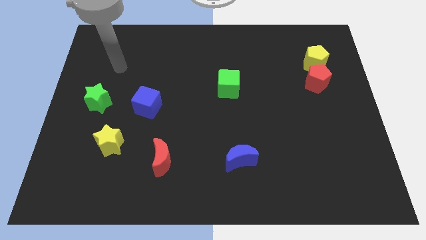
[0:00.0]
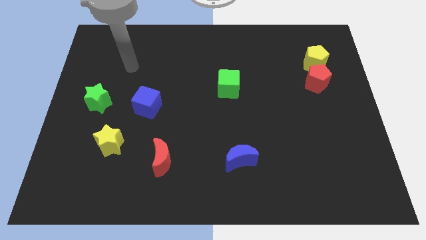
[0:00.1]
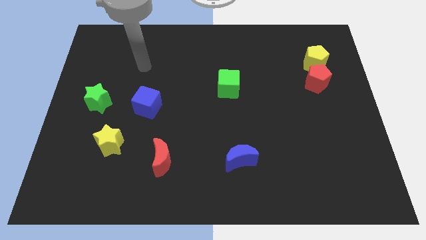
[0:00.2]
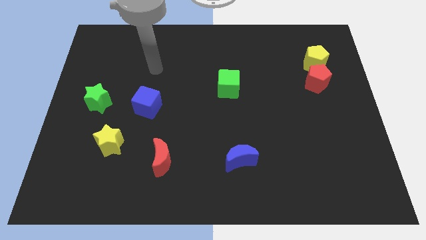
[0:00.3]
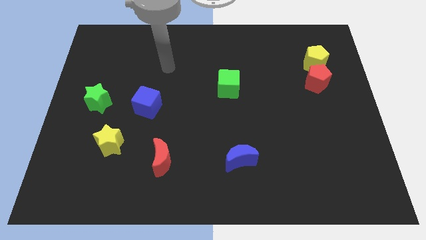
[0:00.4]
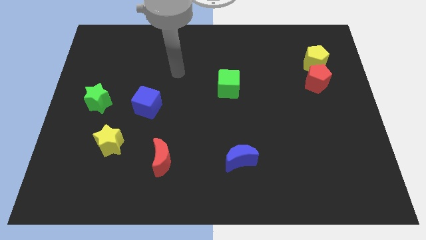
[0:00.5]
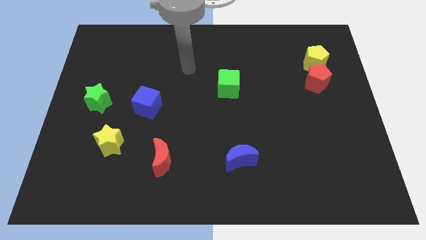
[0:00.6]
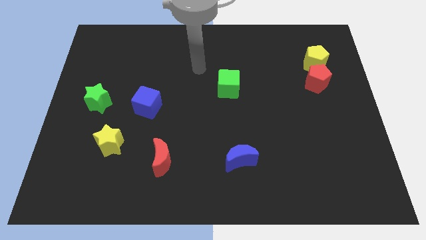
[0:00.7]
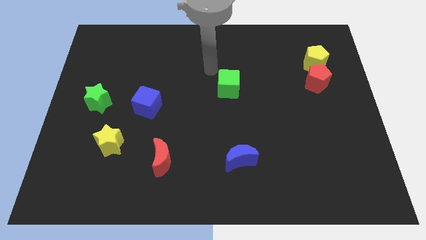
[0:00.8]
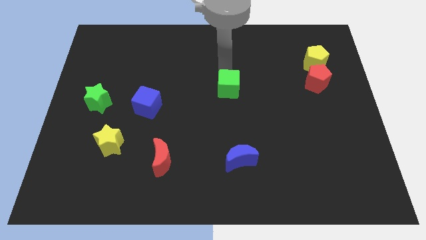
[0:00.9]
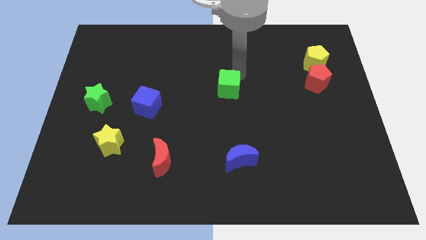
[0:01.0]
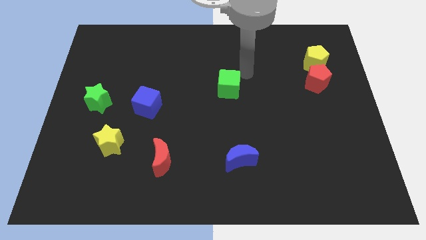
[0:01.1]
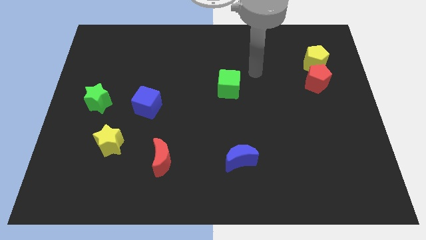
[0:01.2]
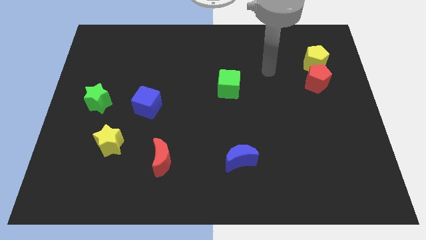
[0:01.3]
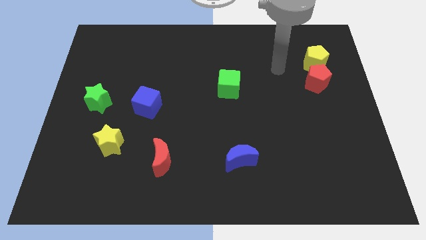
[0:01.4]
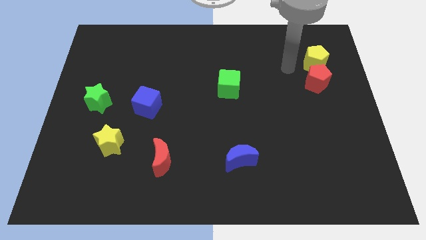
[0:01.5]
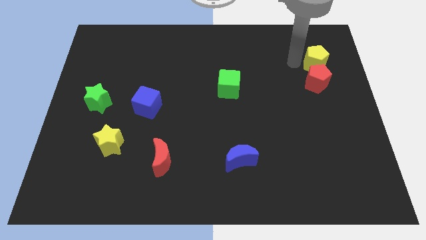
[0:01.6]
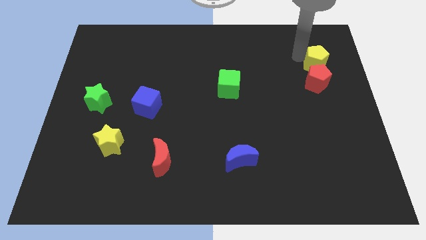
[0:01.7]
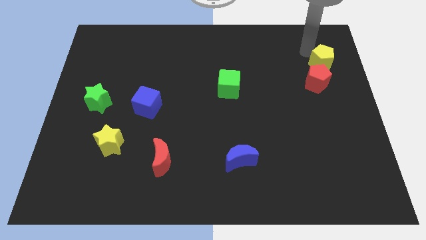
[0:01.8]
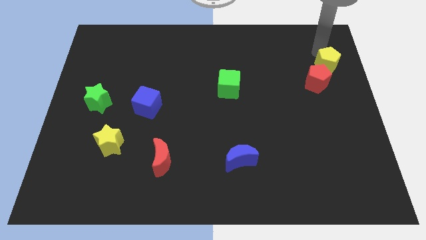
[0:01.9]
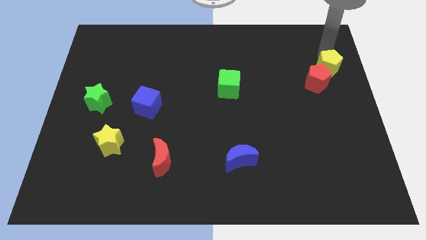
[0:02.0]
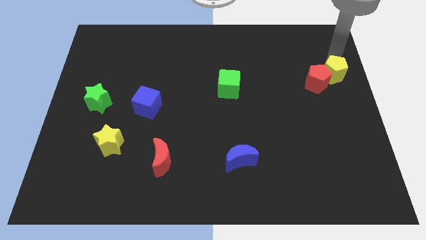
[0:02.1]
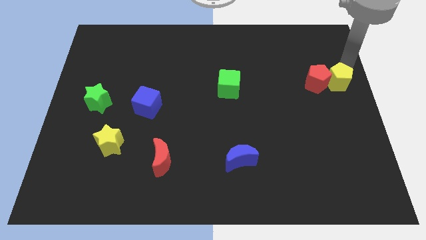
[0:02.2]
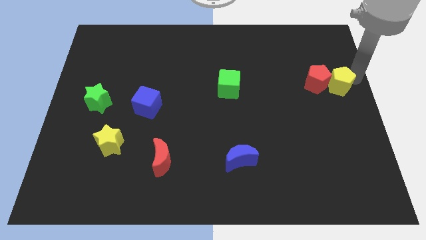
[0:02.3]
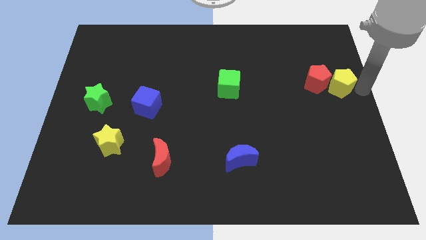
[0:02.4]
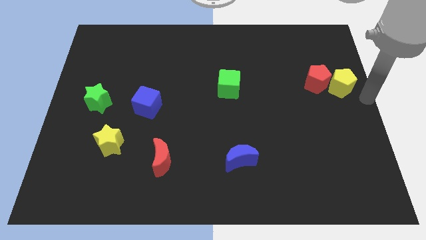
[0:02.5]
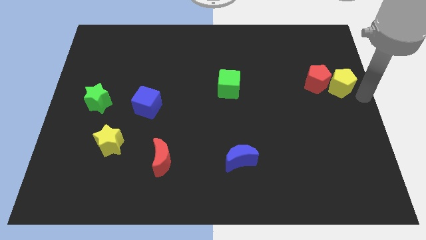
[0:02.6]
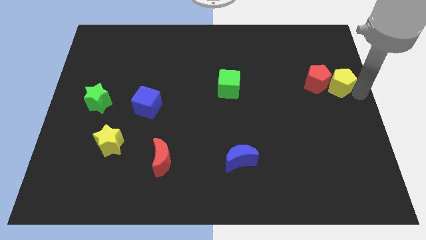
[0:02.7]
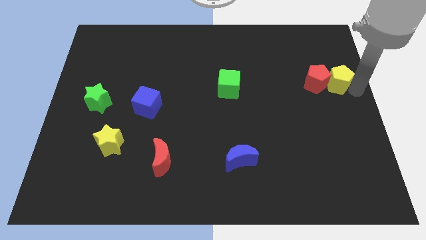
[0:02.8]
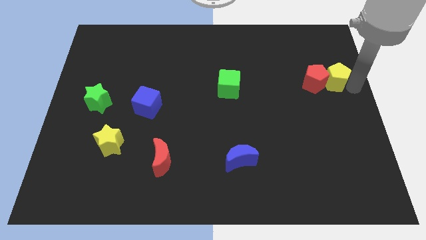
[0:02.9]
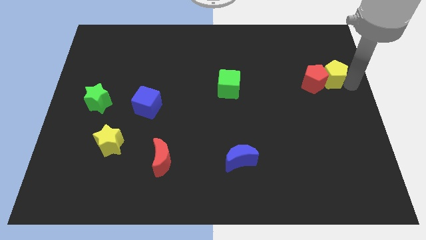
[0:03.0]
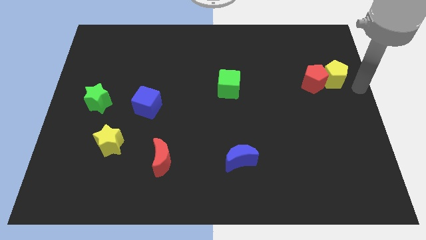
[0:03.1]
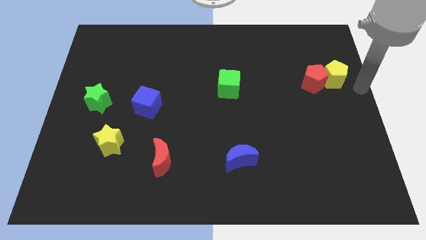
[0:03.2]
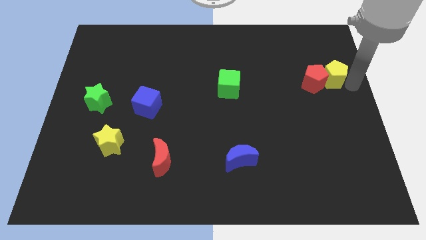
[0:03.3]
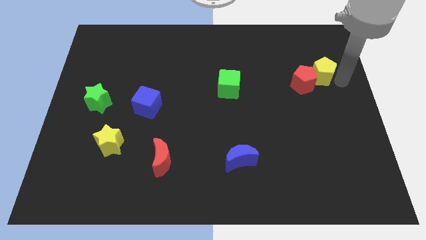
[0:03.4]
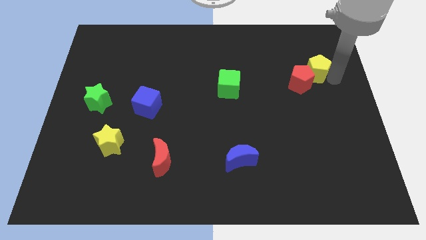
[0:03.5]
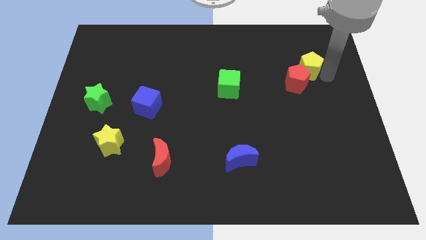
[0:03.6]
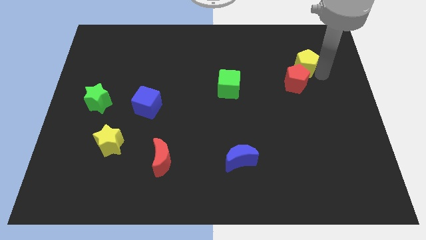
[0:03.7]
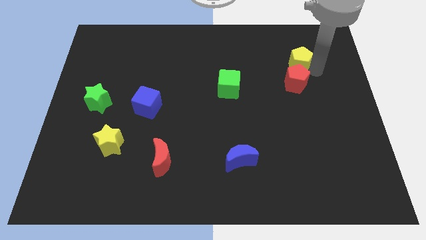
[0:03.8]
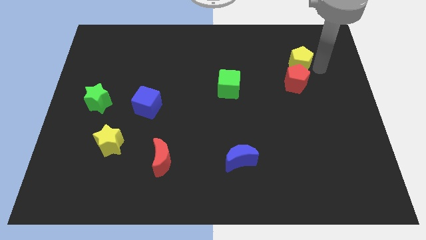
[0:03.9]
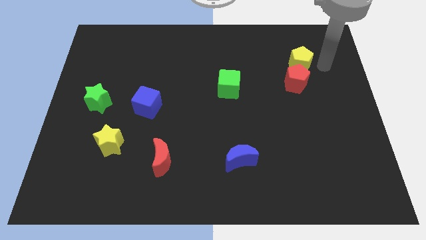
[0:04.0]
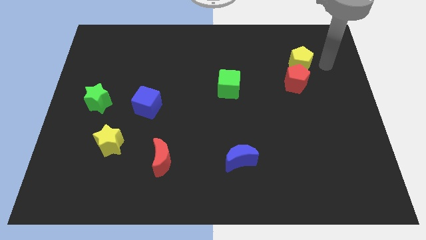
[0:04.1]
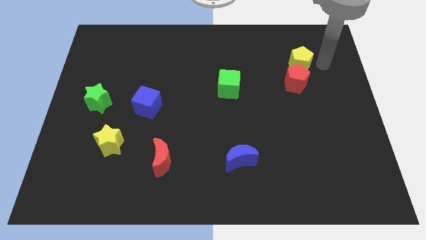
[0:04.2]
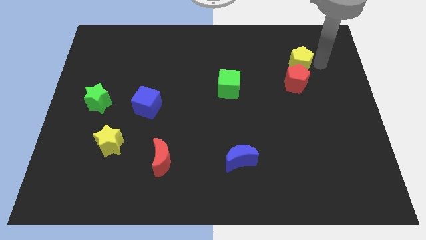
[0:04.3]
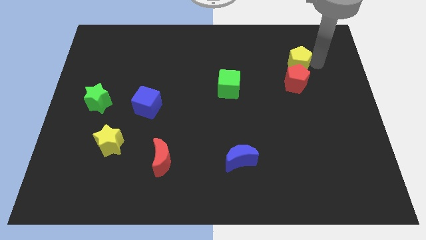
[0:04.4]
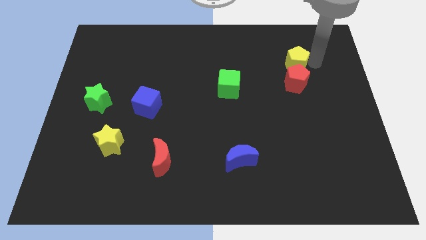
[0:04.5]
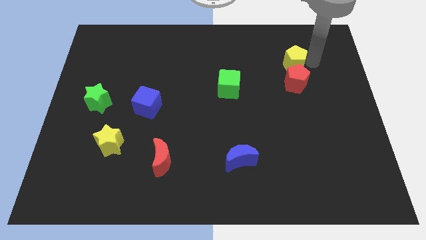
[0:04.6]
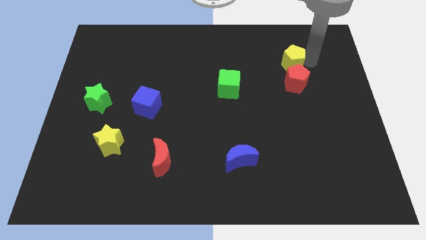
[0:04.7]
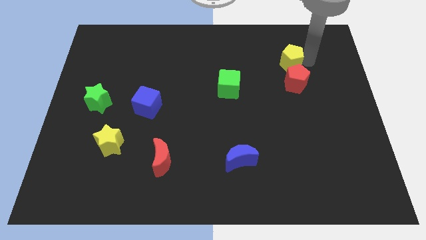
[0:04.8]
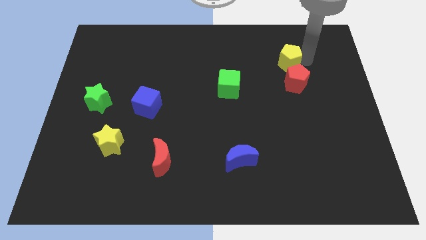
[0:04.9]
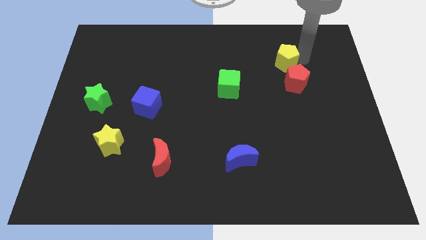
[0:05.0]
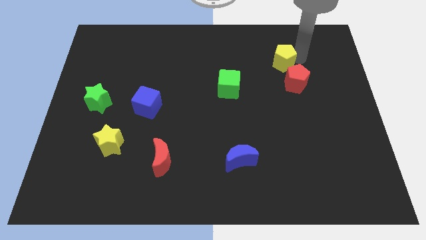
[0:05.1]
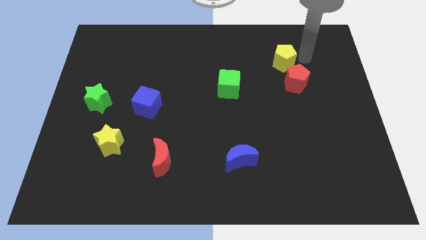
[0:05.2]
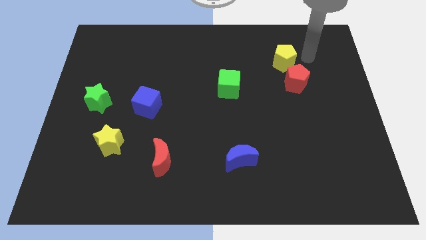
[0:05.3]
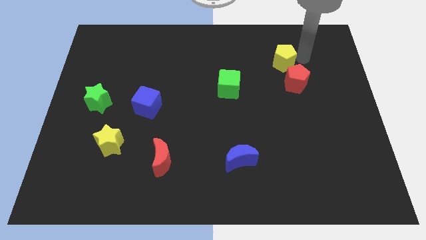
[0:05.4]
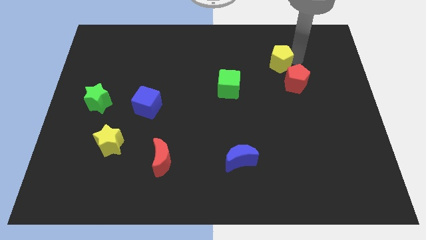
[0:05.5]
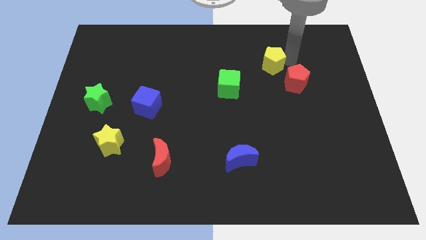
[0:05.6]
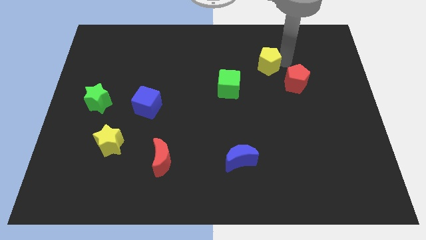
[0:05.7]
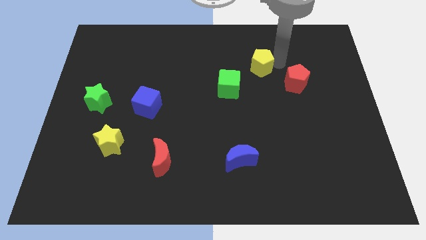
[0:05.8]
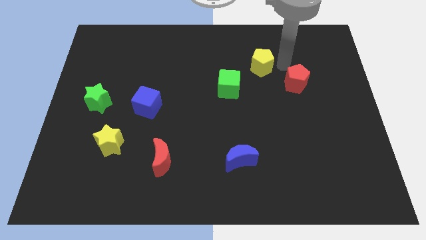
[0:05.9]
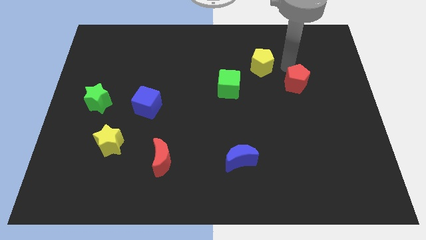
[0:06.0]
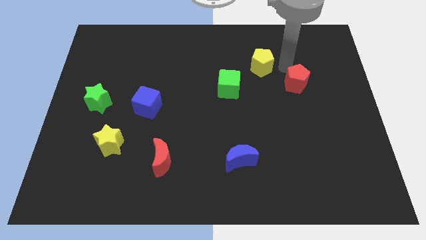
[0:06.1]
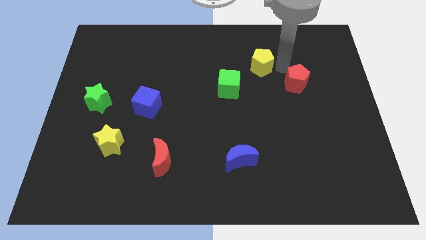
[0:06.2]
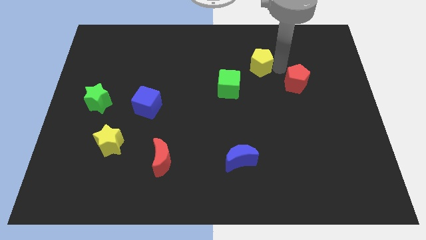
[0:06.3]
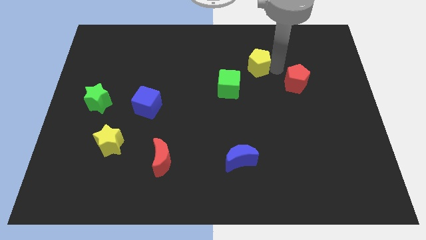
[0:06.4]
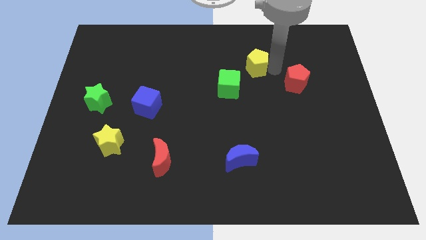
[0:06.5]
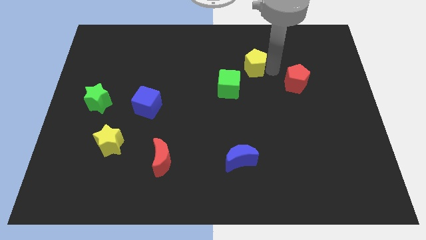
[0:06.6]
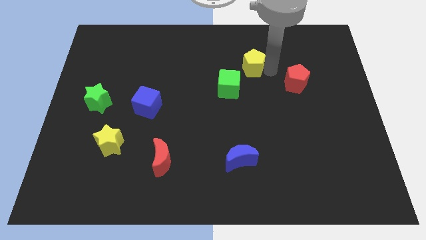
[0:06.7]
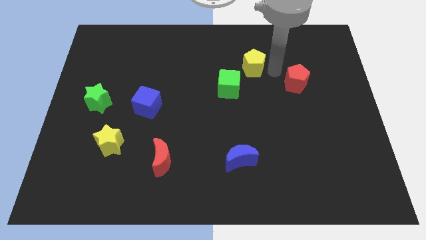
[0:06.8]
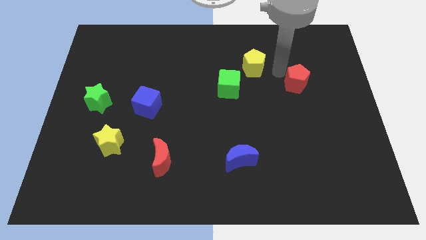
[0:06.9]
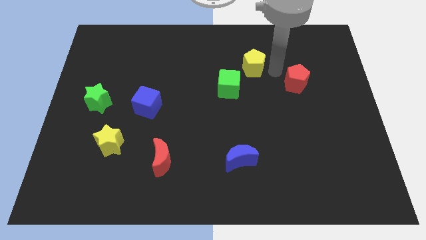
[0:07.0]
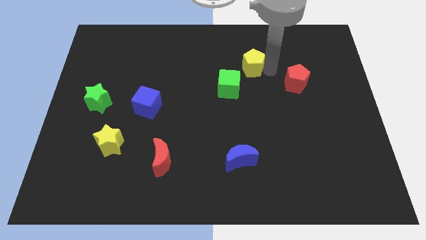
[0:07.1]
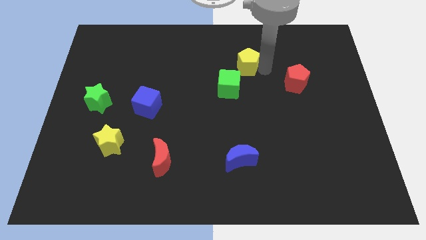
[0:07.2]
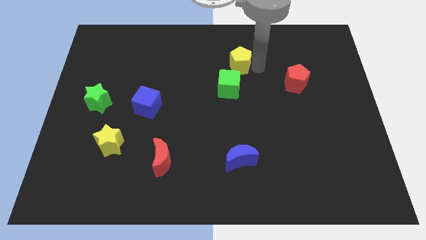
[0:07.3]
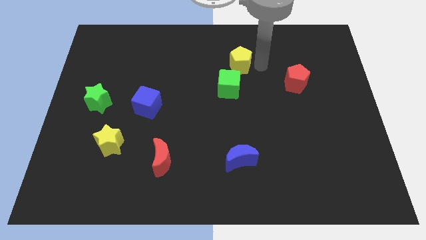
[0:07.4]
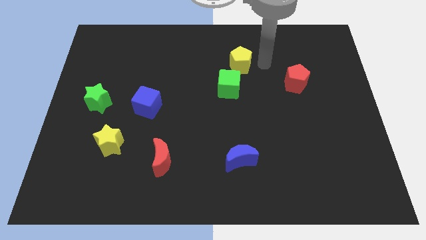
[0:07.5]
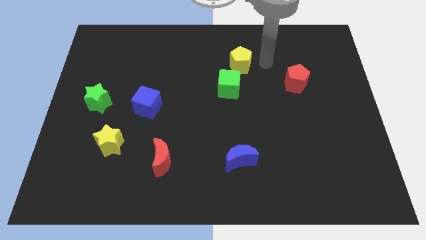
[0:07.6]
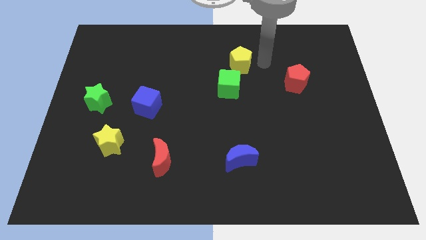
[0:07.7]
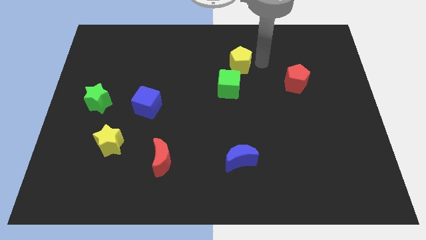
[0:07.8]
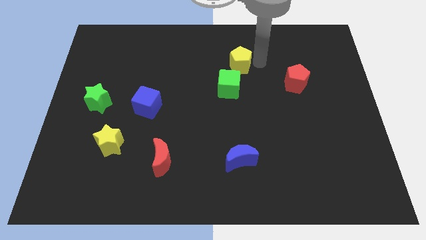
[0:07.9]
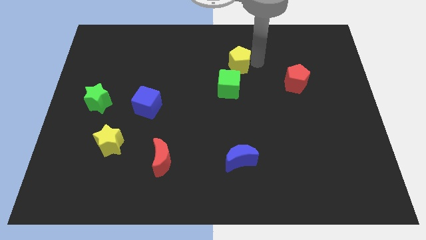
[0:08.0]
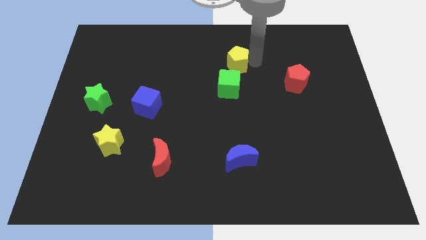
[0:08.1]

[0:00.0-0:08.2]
push the yellow pentagon left

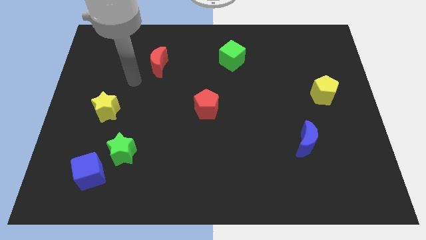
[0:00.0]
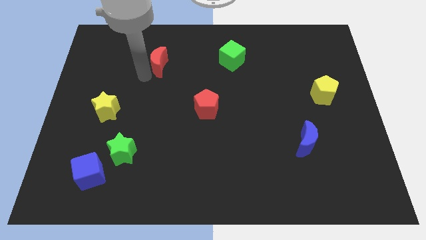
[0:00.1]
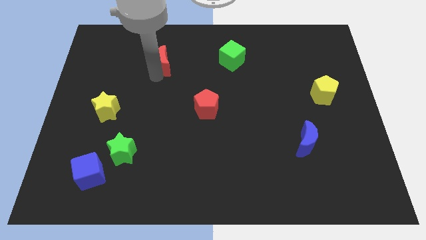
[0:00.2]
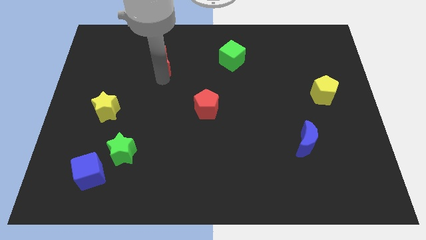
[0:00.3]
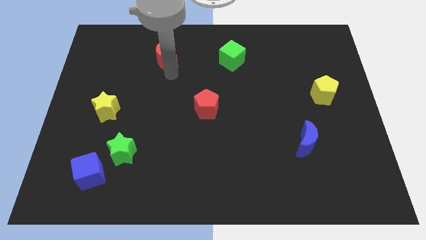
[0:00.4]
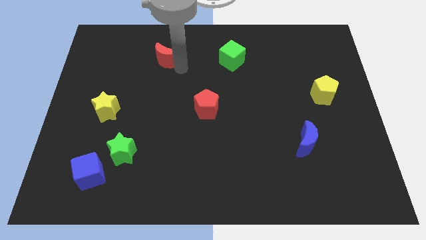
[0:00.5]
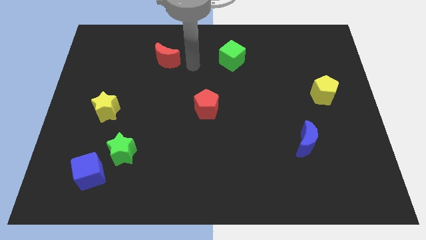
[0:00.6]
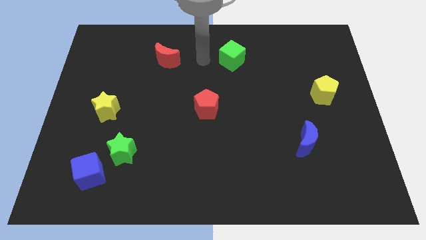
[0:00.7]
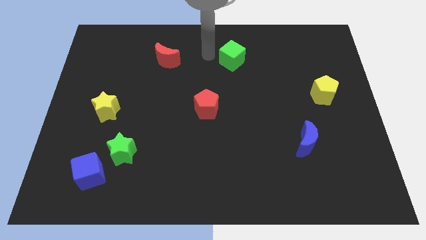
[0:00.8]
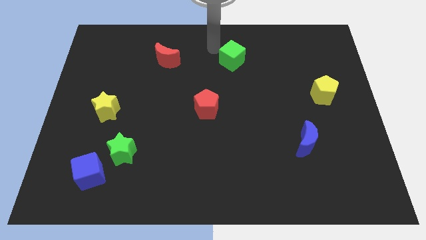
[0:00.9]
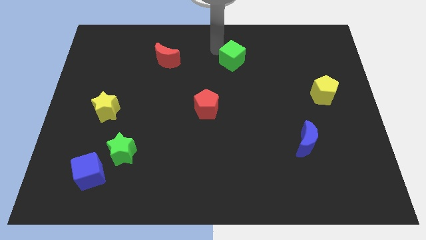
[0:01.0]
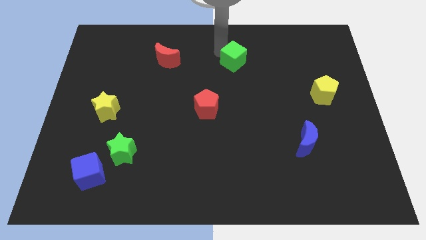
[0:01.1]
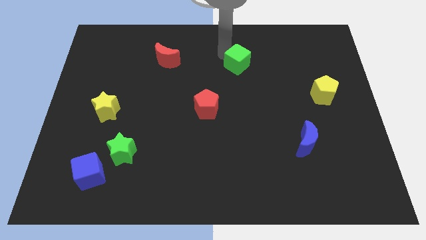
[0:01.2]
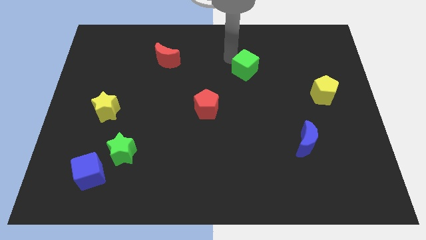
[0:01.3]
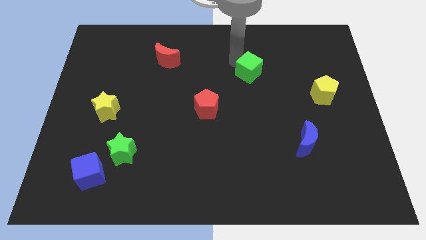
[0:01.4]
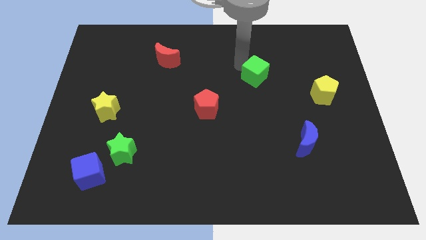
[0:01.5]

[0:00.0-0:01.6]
slide the green cube a little bit diagonally down and right
